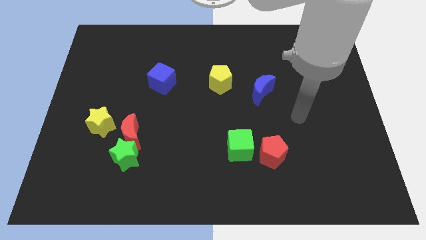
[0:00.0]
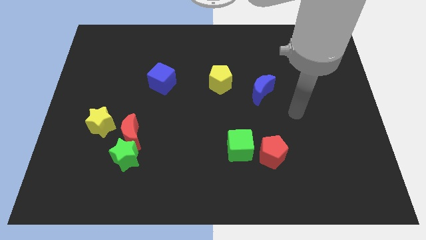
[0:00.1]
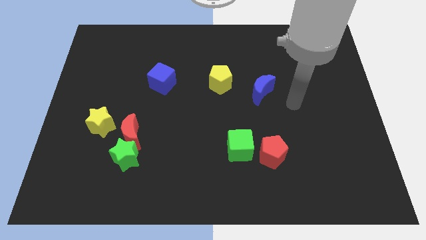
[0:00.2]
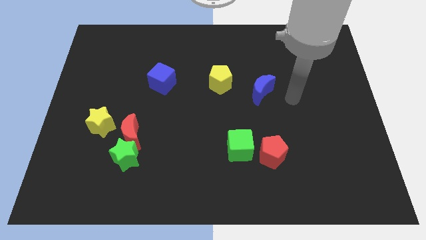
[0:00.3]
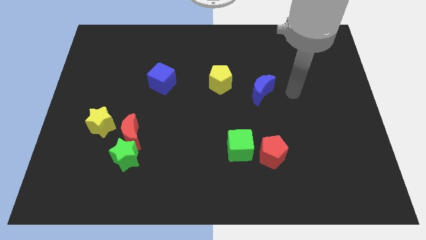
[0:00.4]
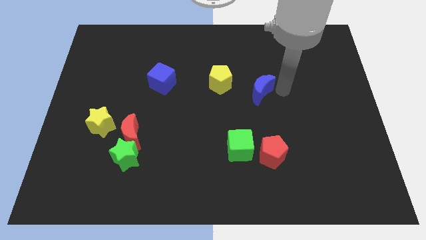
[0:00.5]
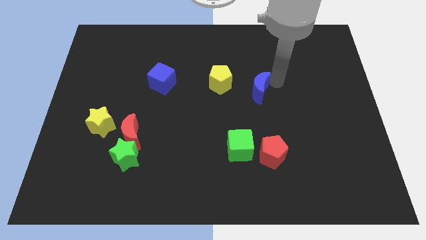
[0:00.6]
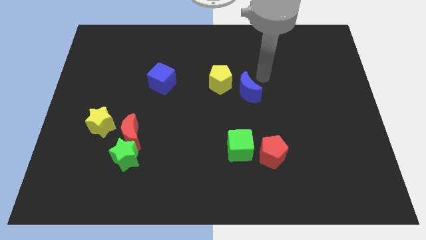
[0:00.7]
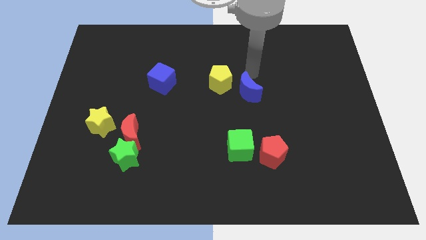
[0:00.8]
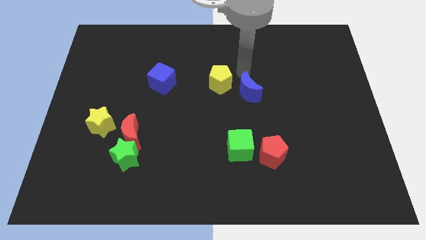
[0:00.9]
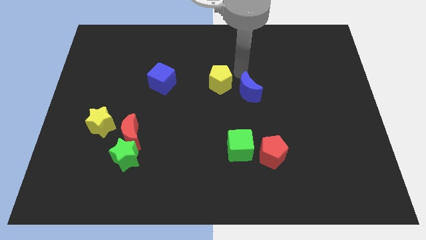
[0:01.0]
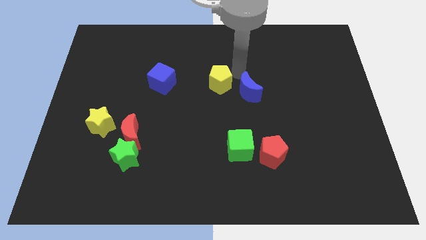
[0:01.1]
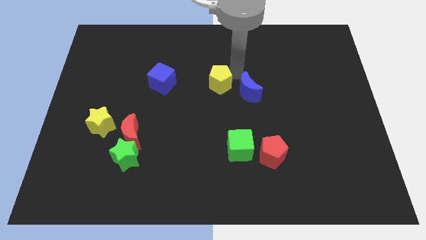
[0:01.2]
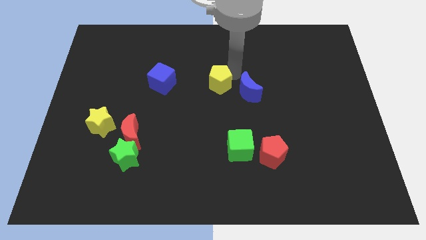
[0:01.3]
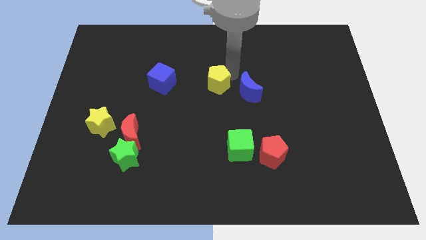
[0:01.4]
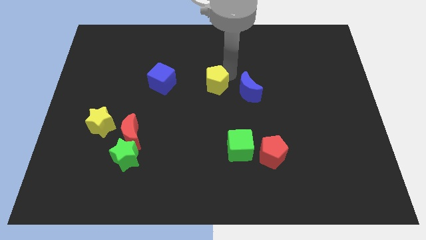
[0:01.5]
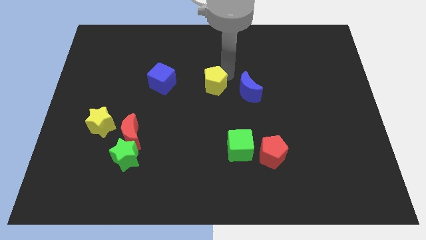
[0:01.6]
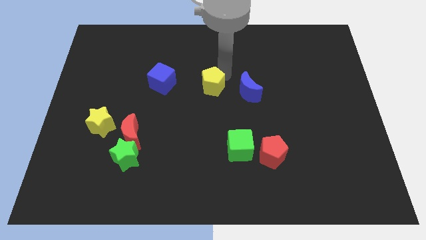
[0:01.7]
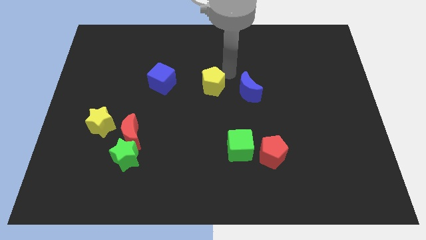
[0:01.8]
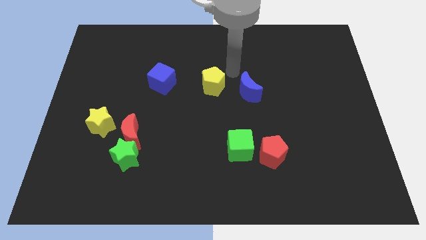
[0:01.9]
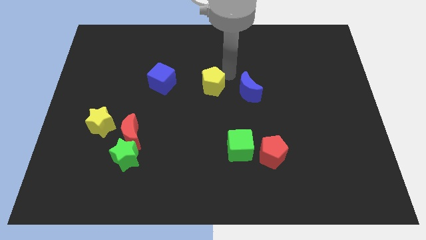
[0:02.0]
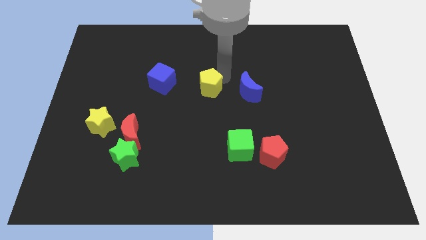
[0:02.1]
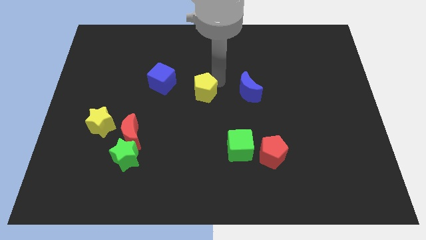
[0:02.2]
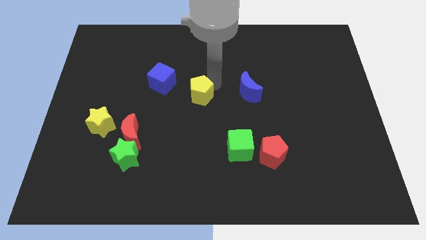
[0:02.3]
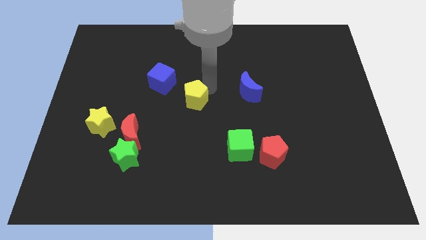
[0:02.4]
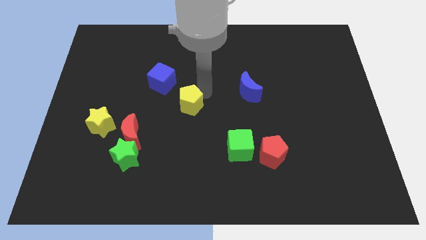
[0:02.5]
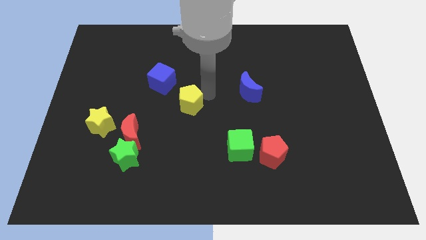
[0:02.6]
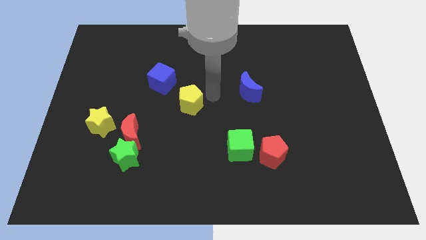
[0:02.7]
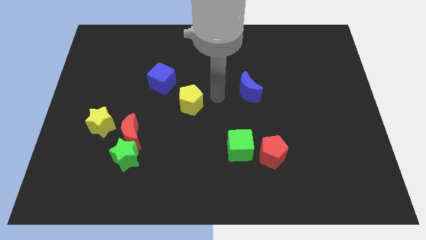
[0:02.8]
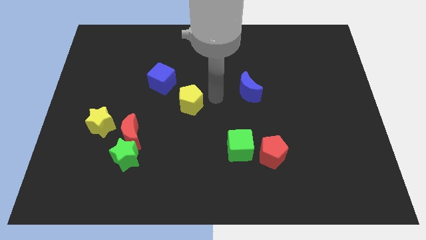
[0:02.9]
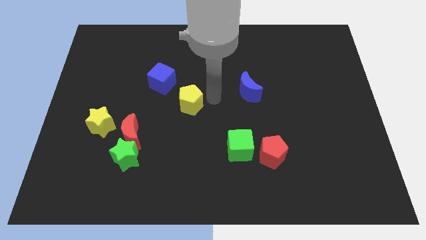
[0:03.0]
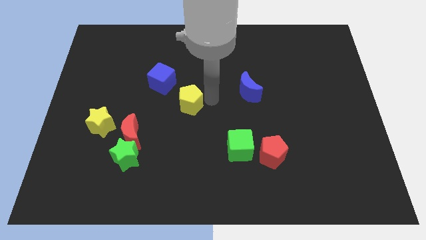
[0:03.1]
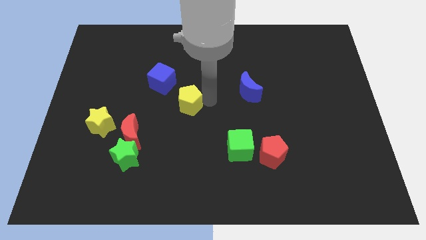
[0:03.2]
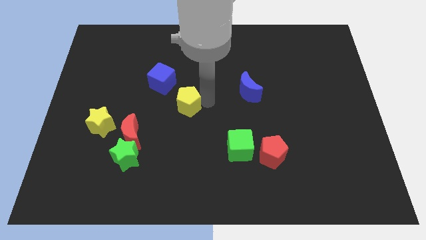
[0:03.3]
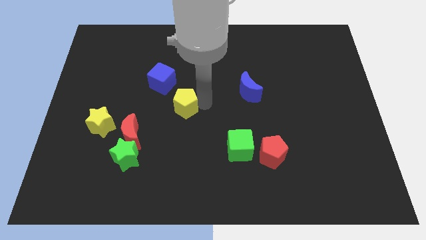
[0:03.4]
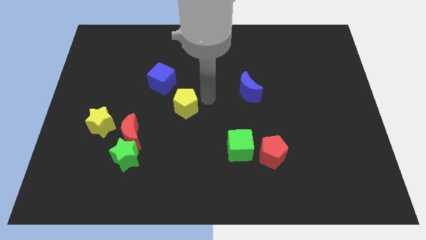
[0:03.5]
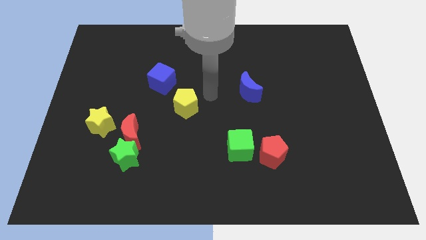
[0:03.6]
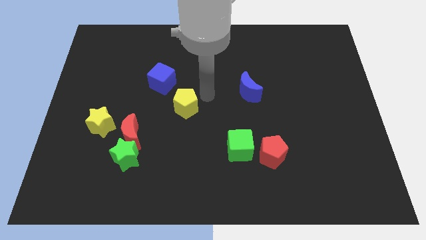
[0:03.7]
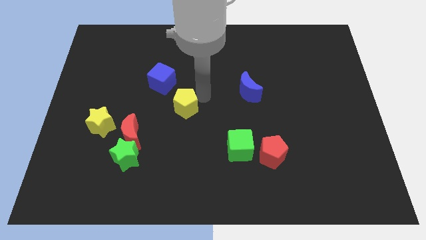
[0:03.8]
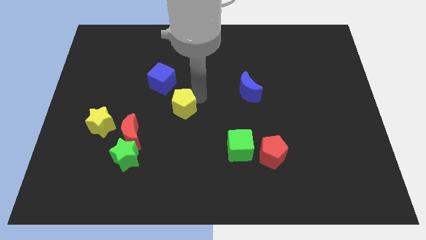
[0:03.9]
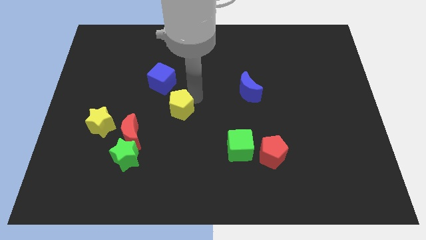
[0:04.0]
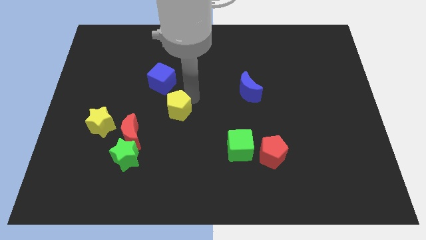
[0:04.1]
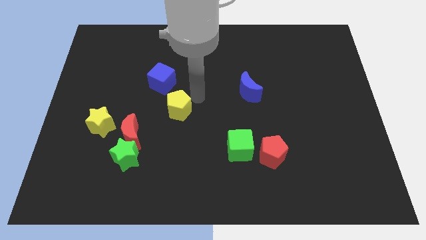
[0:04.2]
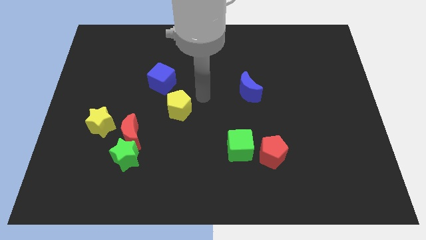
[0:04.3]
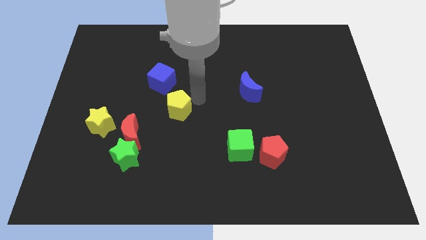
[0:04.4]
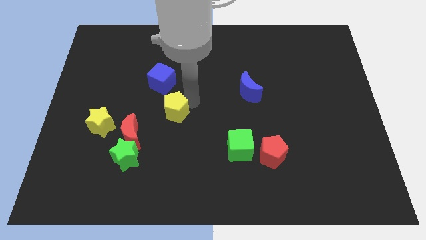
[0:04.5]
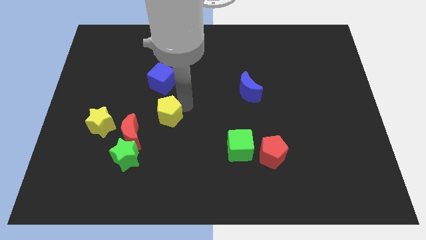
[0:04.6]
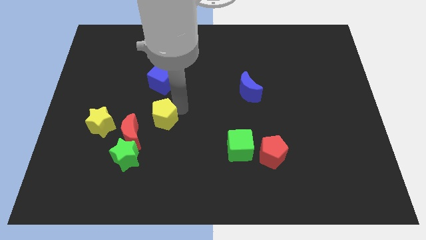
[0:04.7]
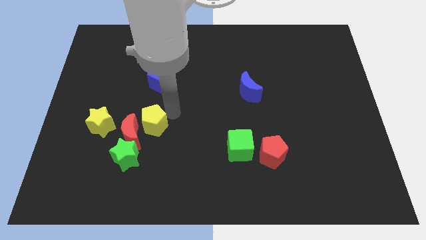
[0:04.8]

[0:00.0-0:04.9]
slide the yellow pentagon to the red moon

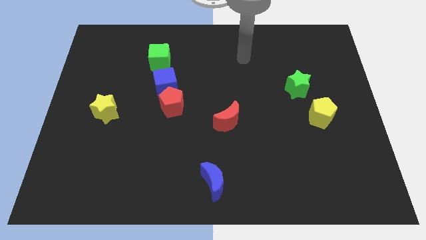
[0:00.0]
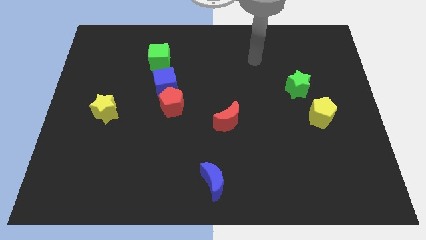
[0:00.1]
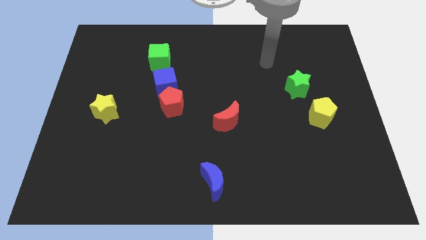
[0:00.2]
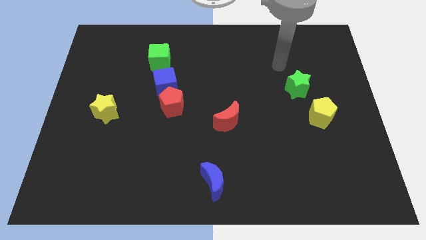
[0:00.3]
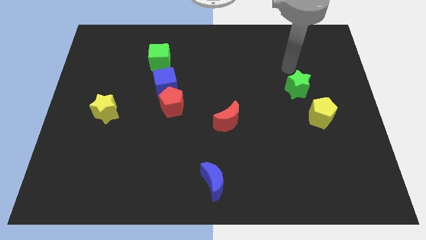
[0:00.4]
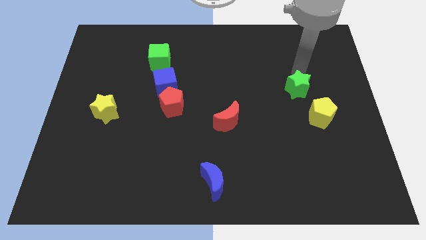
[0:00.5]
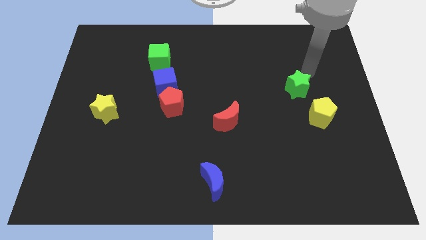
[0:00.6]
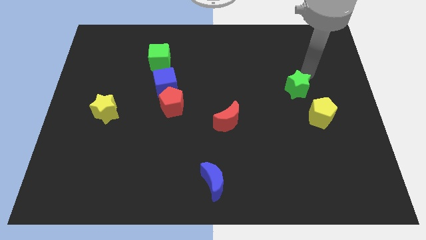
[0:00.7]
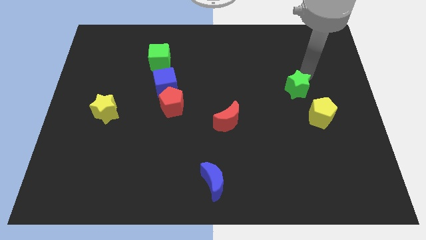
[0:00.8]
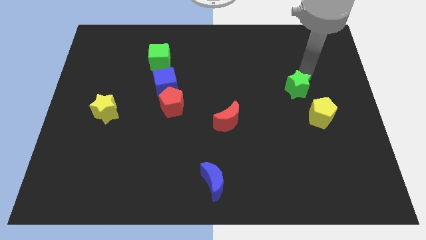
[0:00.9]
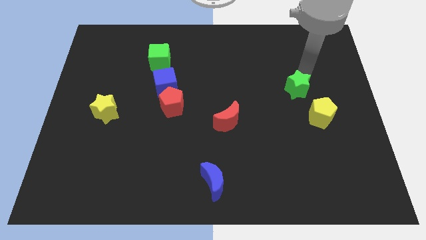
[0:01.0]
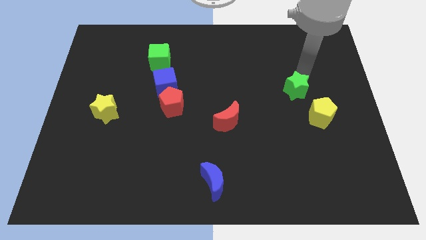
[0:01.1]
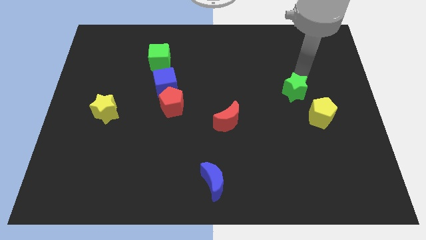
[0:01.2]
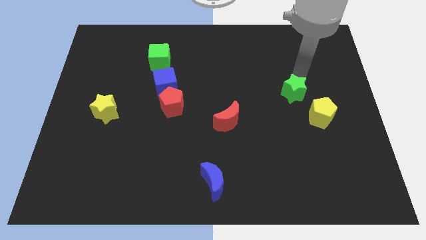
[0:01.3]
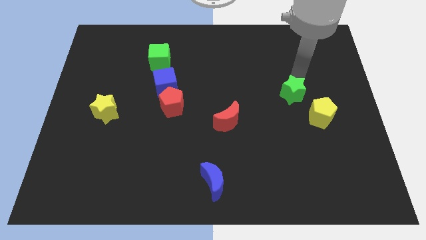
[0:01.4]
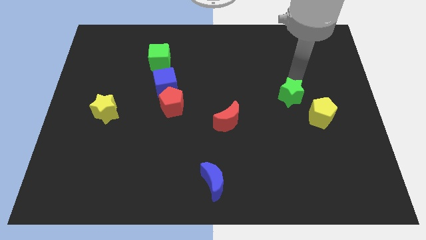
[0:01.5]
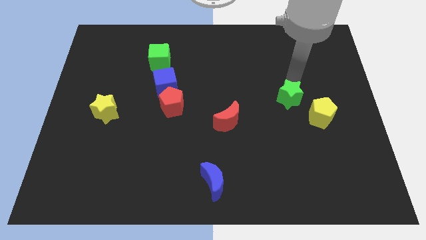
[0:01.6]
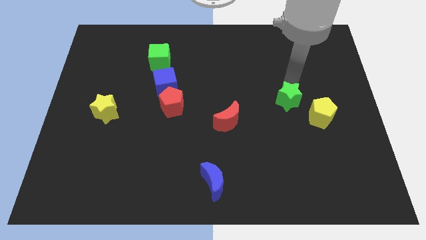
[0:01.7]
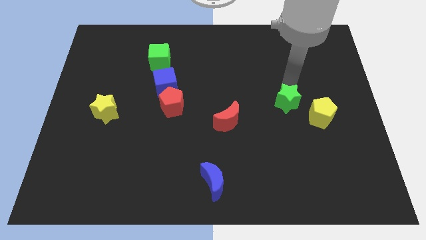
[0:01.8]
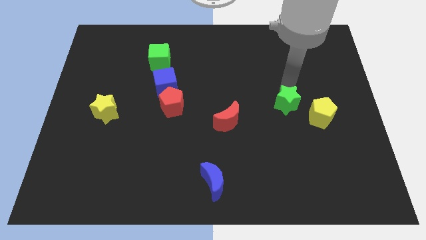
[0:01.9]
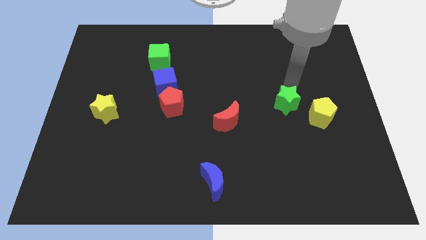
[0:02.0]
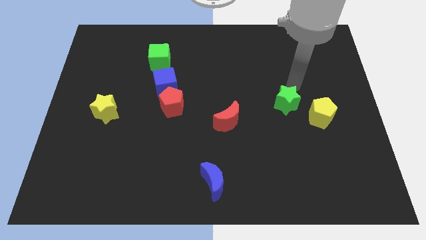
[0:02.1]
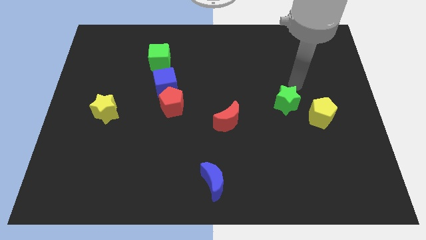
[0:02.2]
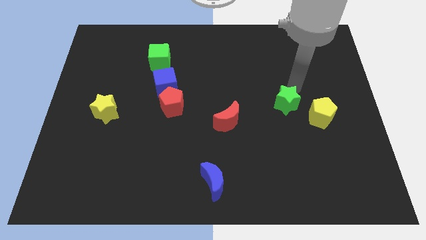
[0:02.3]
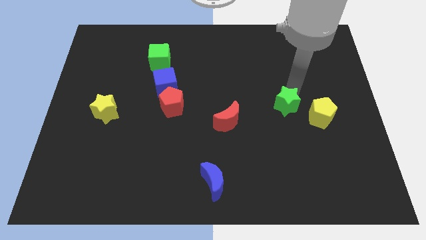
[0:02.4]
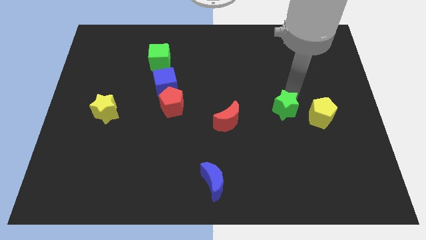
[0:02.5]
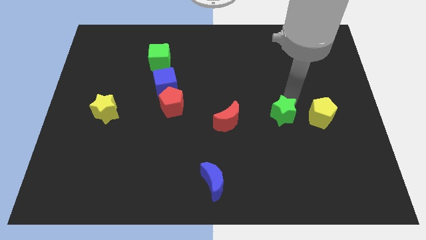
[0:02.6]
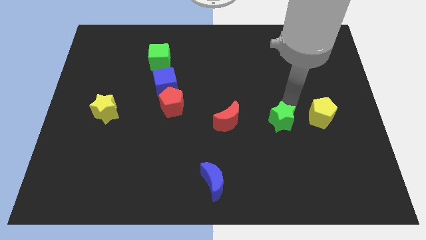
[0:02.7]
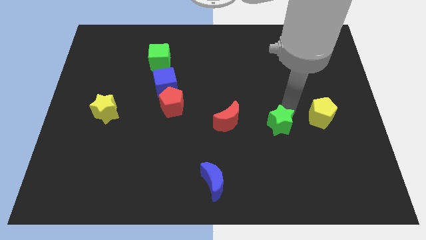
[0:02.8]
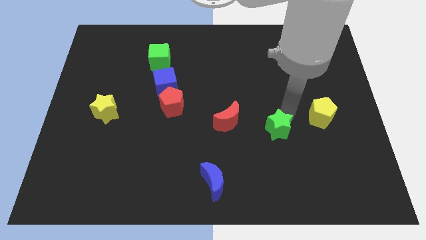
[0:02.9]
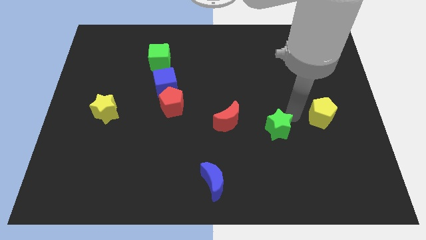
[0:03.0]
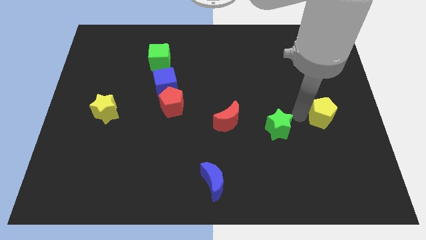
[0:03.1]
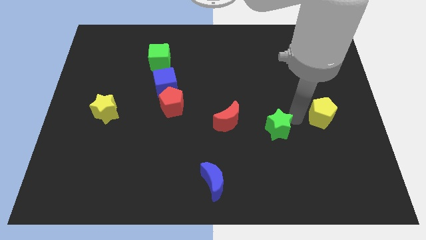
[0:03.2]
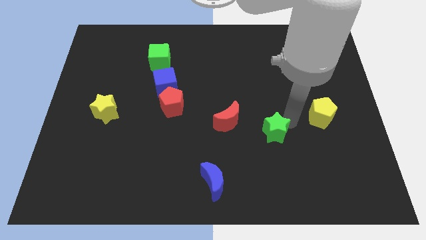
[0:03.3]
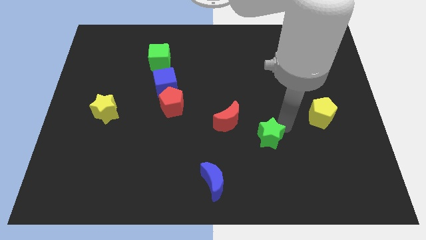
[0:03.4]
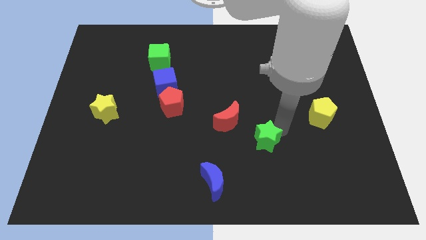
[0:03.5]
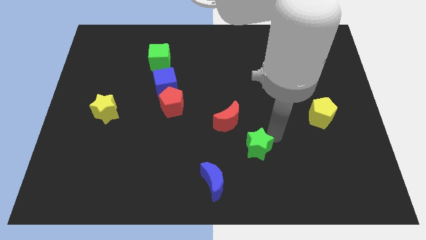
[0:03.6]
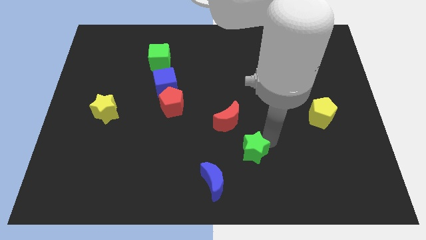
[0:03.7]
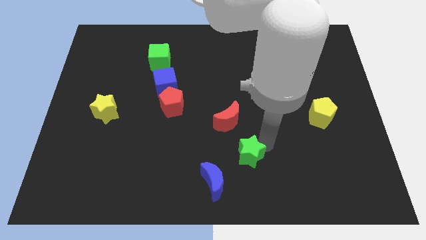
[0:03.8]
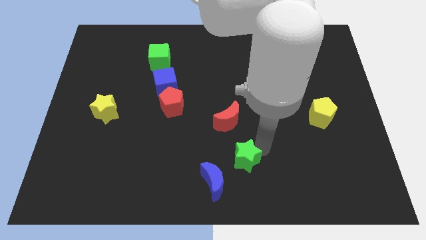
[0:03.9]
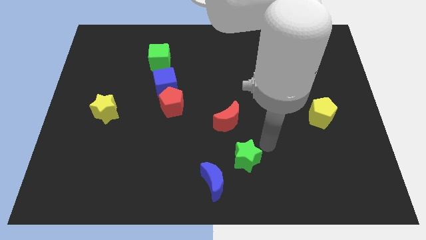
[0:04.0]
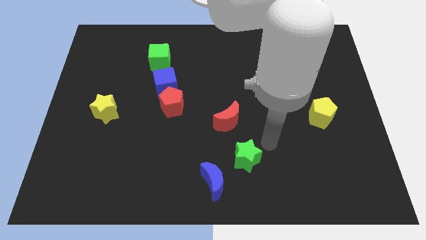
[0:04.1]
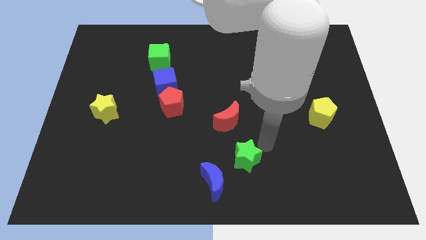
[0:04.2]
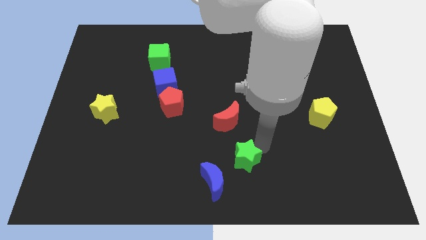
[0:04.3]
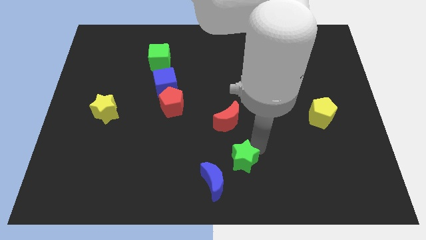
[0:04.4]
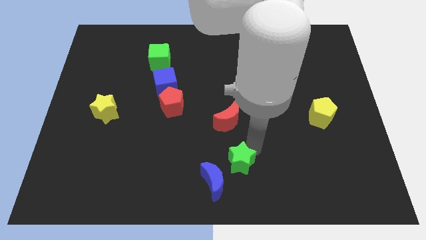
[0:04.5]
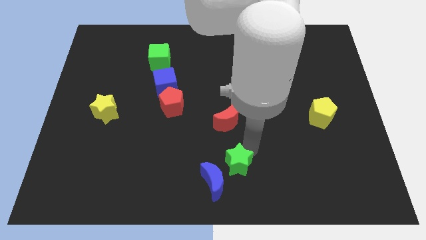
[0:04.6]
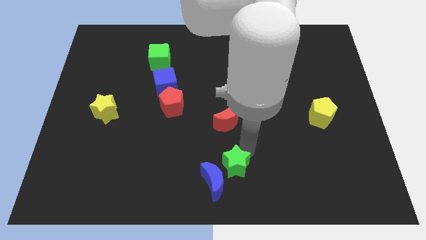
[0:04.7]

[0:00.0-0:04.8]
push the green star to the blue moon
